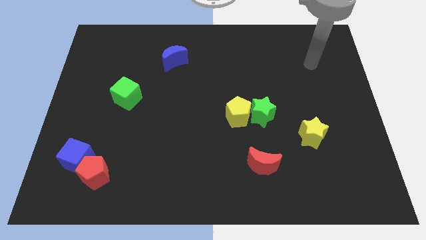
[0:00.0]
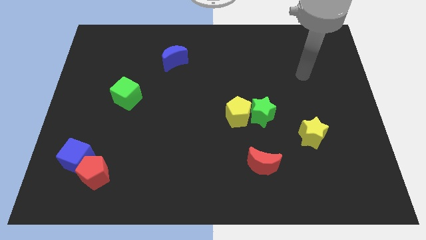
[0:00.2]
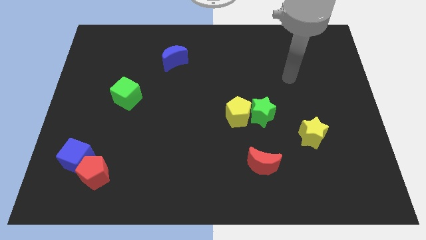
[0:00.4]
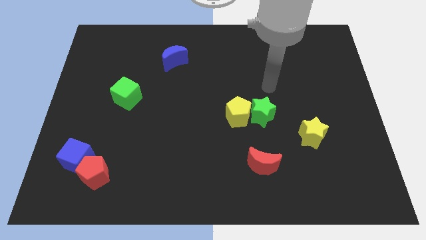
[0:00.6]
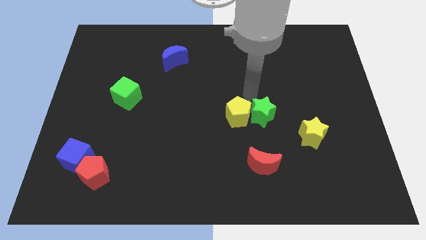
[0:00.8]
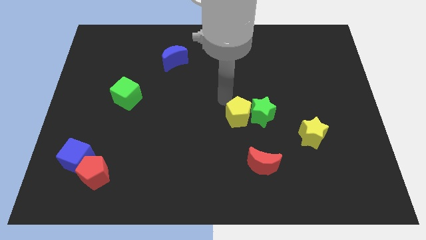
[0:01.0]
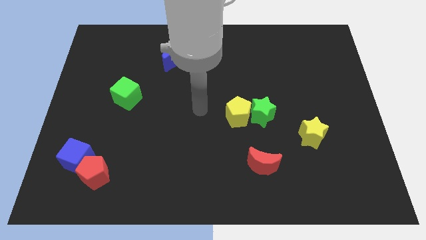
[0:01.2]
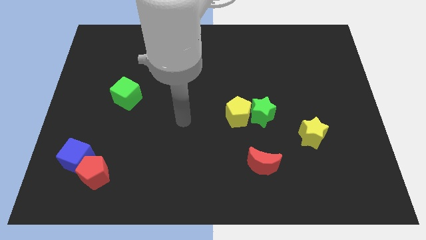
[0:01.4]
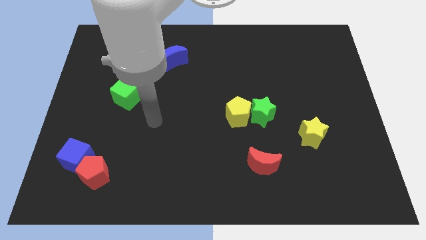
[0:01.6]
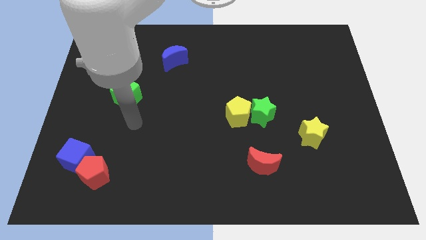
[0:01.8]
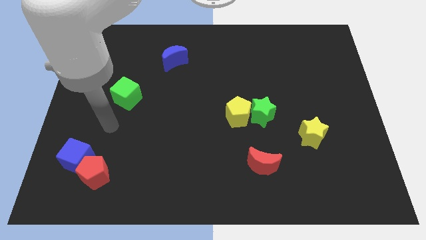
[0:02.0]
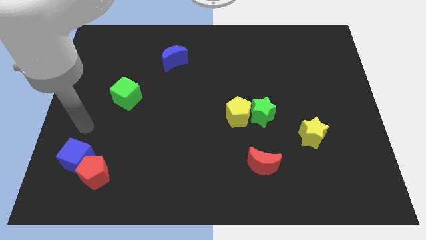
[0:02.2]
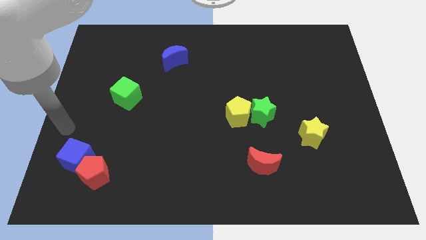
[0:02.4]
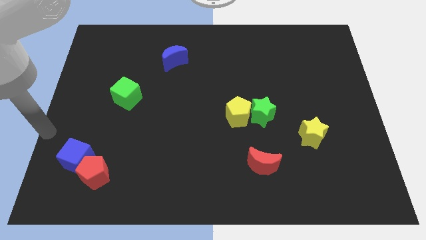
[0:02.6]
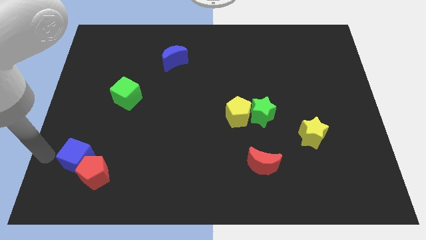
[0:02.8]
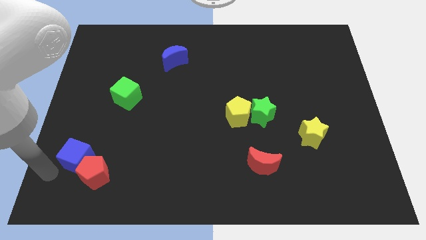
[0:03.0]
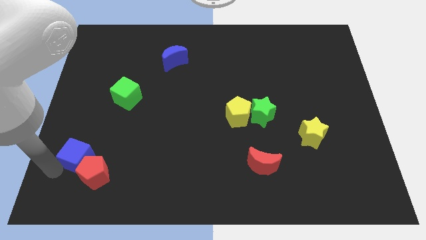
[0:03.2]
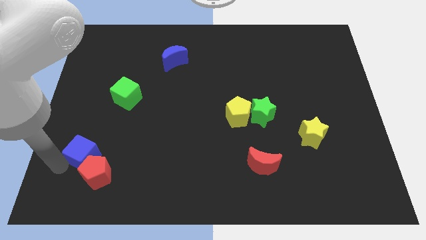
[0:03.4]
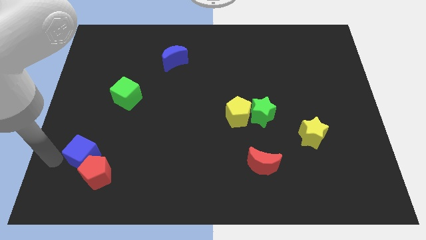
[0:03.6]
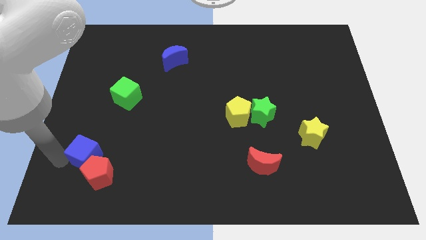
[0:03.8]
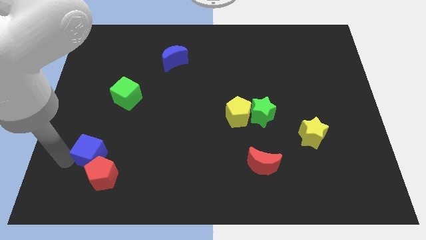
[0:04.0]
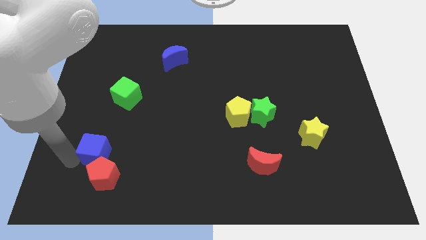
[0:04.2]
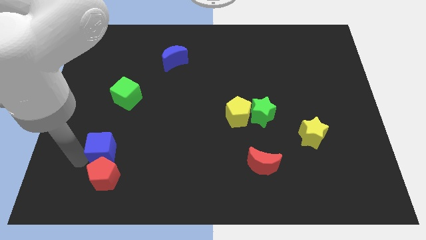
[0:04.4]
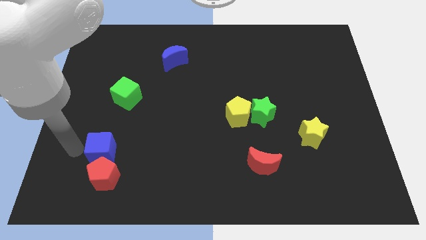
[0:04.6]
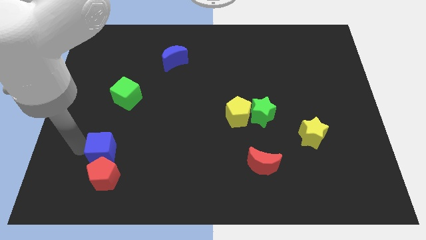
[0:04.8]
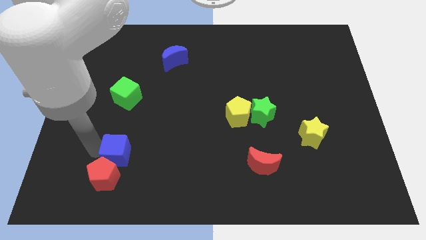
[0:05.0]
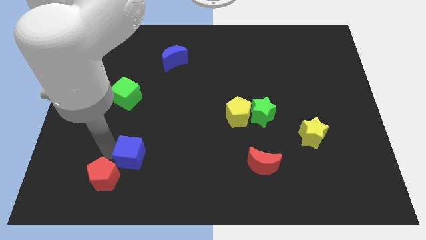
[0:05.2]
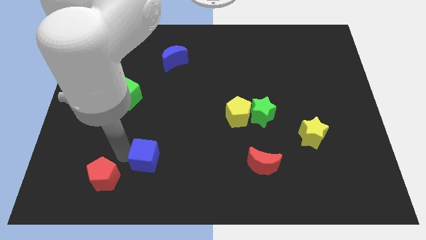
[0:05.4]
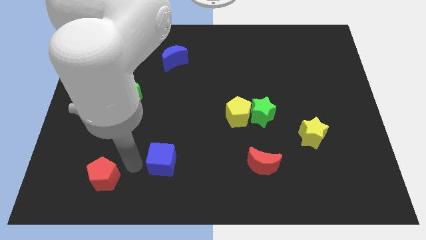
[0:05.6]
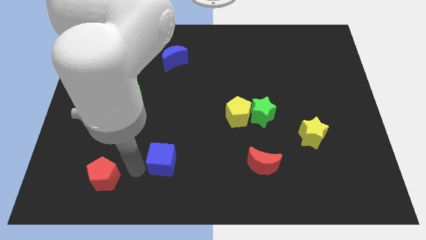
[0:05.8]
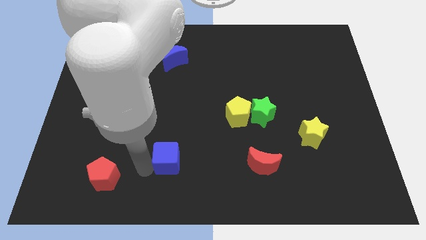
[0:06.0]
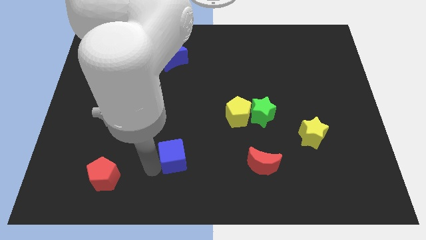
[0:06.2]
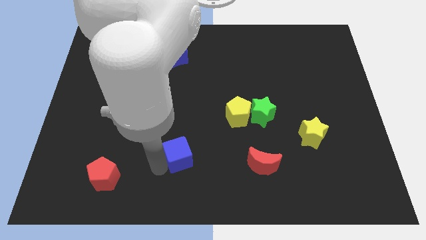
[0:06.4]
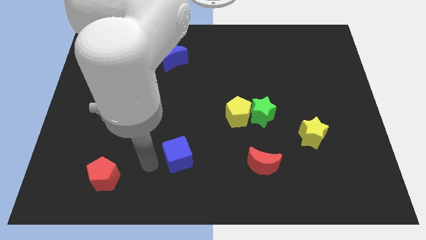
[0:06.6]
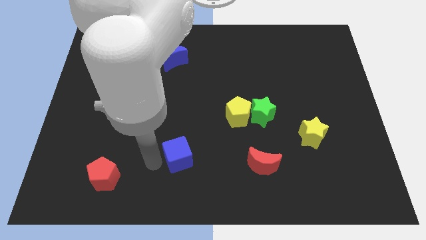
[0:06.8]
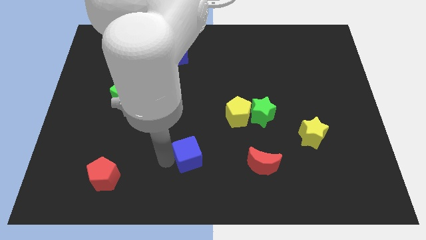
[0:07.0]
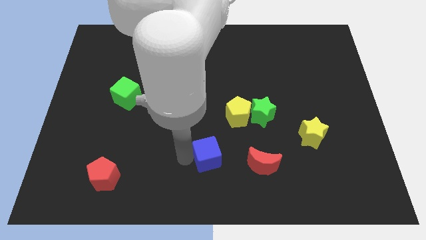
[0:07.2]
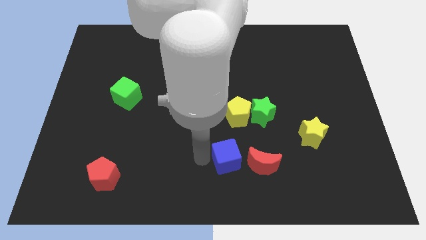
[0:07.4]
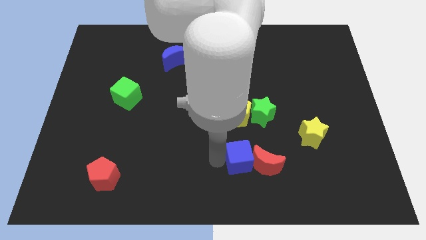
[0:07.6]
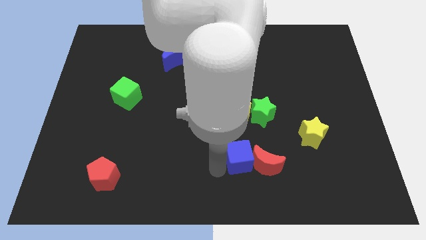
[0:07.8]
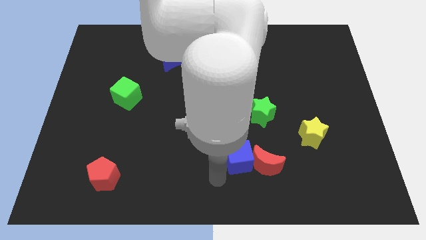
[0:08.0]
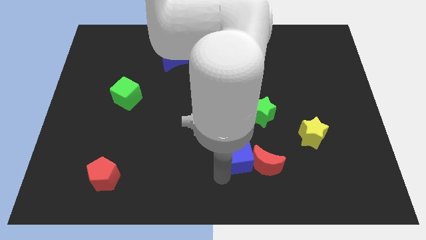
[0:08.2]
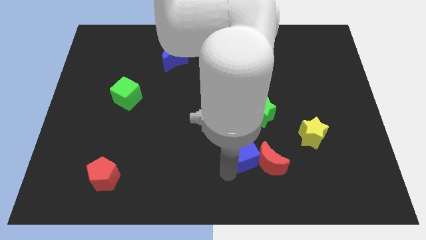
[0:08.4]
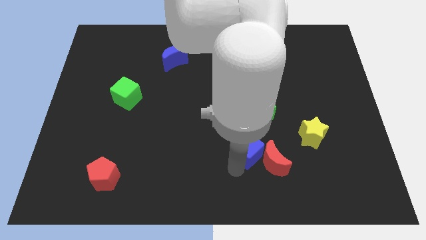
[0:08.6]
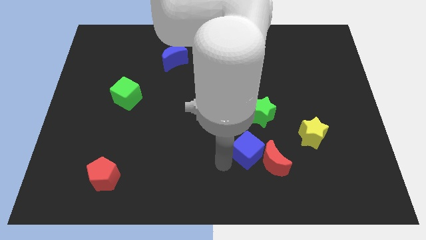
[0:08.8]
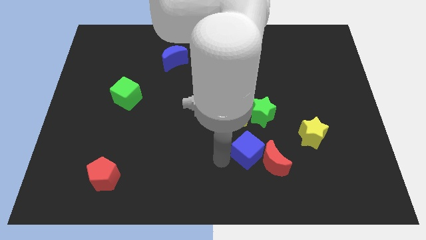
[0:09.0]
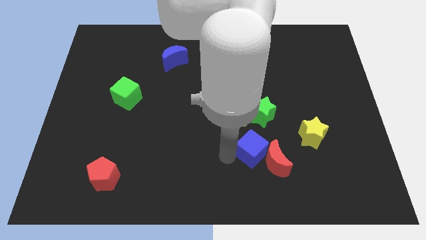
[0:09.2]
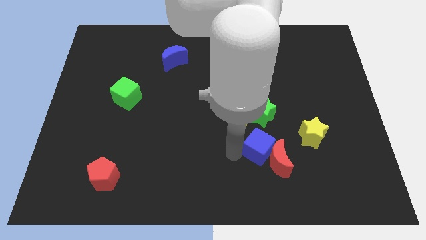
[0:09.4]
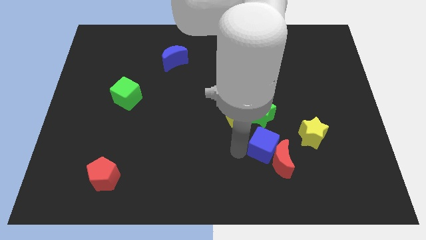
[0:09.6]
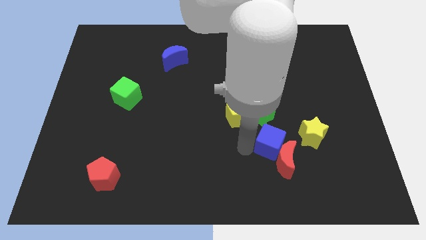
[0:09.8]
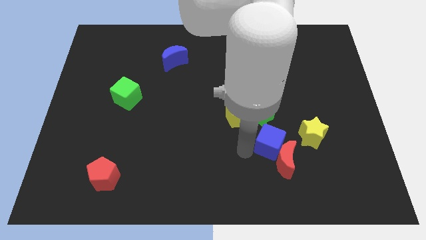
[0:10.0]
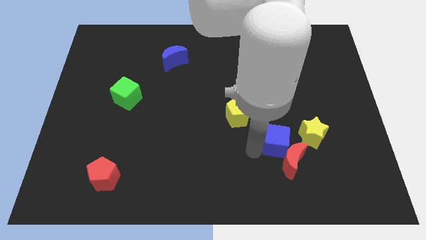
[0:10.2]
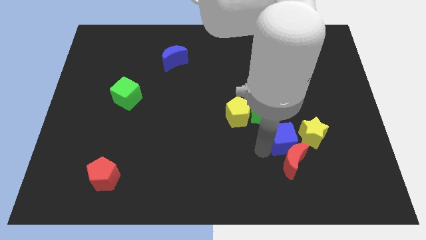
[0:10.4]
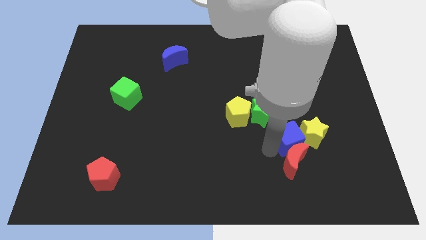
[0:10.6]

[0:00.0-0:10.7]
push the blue cube to the yellow star

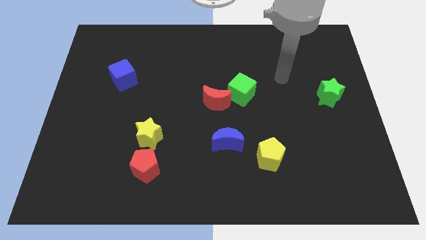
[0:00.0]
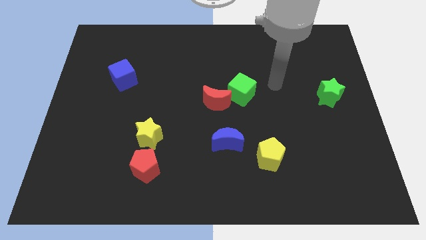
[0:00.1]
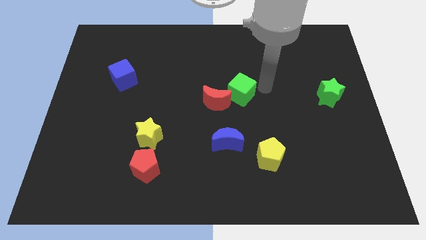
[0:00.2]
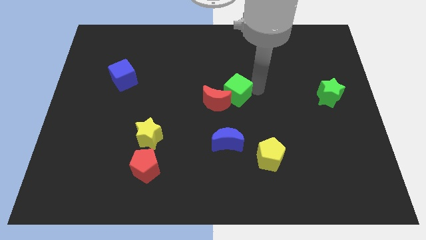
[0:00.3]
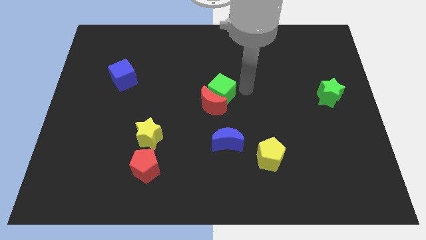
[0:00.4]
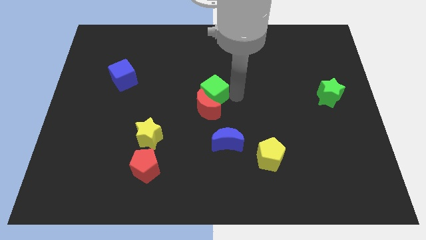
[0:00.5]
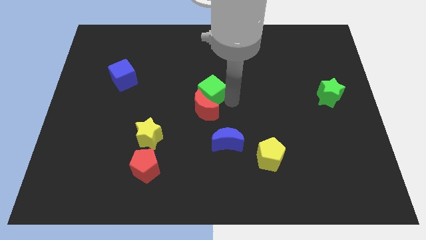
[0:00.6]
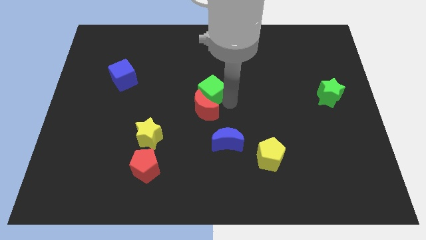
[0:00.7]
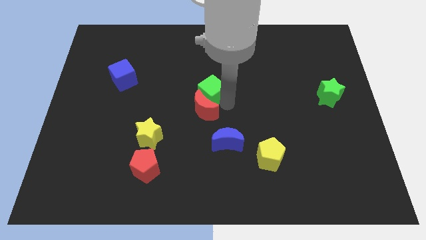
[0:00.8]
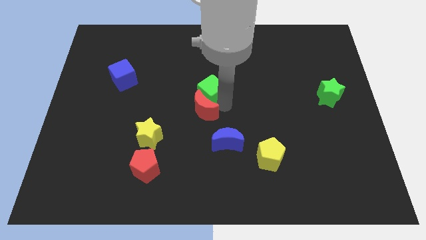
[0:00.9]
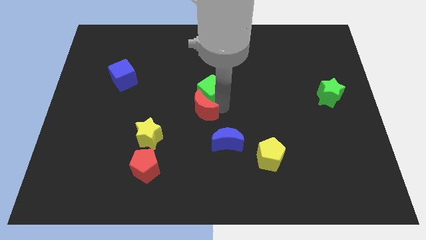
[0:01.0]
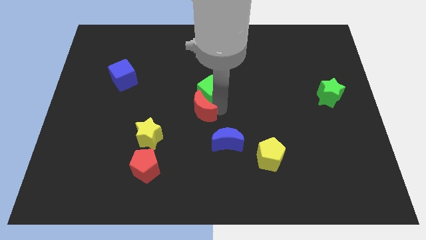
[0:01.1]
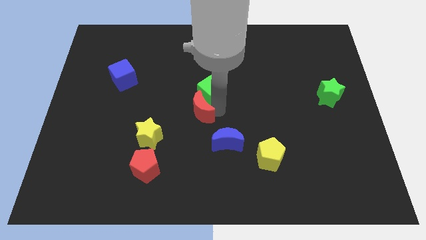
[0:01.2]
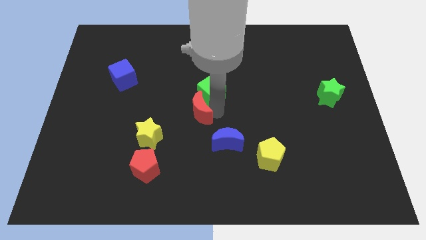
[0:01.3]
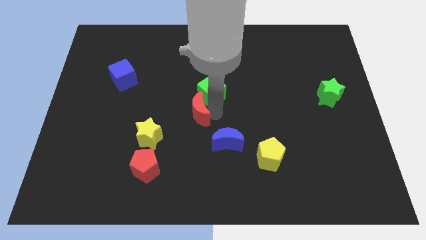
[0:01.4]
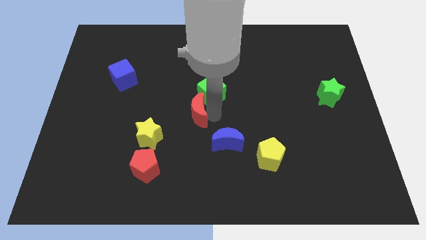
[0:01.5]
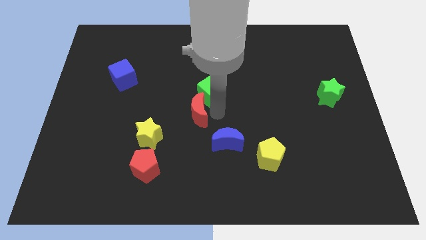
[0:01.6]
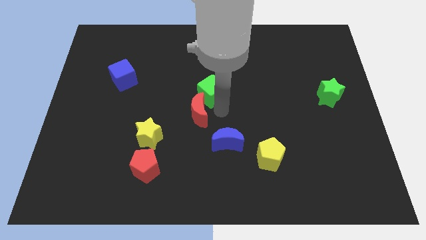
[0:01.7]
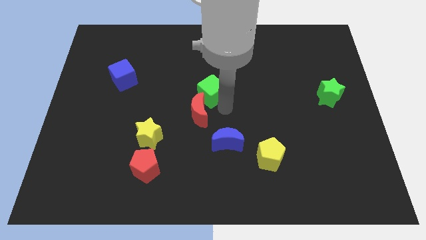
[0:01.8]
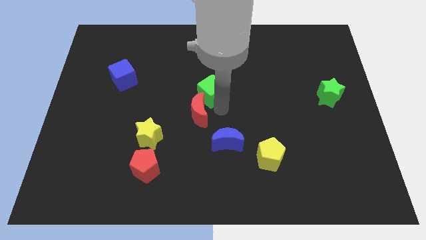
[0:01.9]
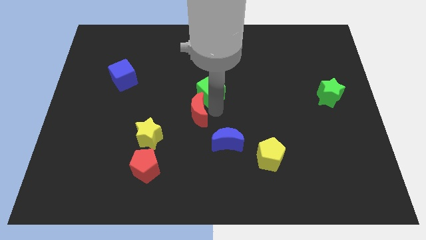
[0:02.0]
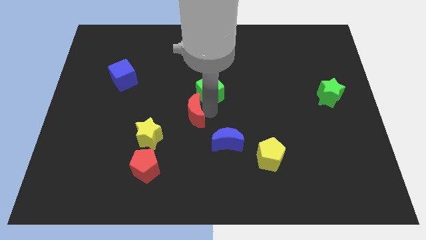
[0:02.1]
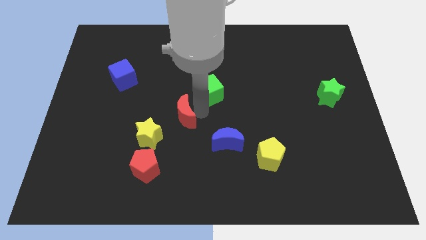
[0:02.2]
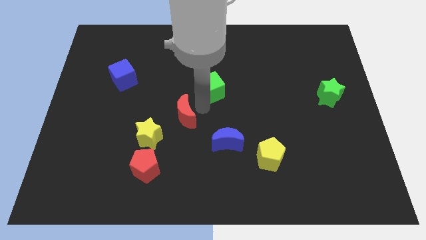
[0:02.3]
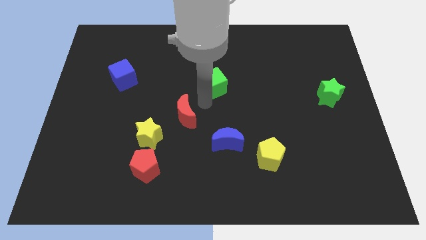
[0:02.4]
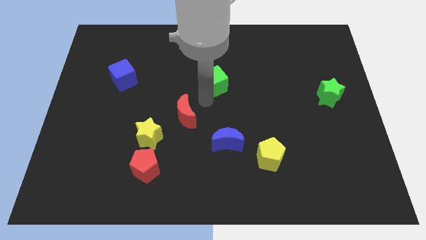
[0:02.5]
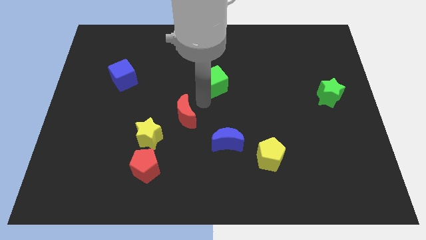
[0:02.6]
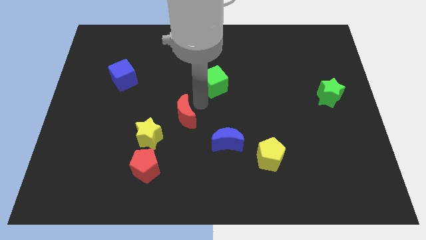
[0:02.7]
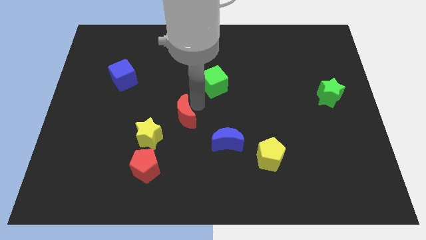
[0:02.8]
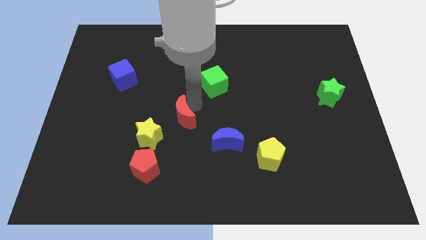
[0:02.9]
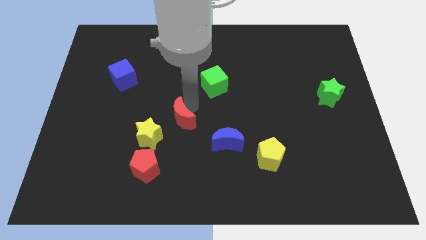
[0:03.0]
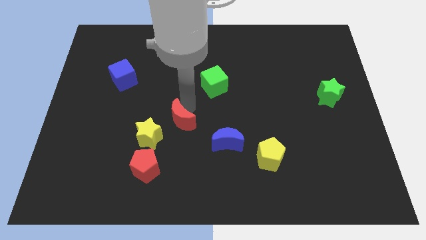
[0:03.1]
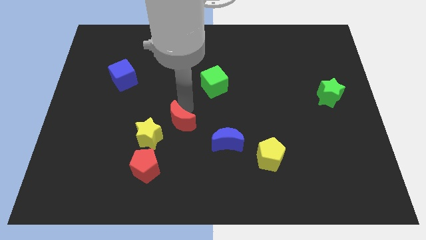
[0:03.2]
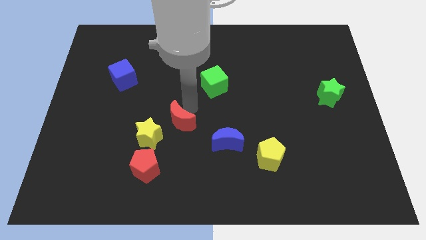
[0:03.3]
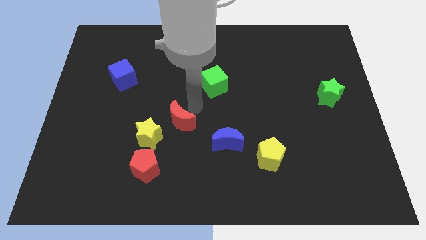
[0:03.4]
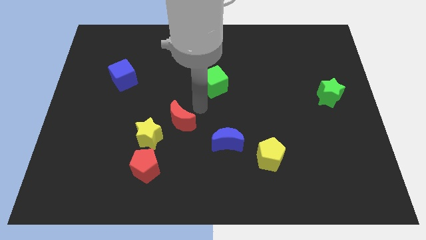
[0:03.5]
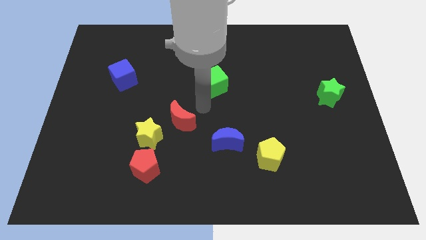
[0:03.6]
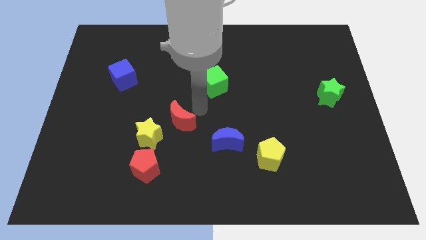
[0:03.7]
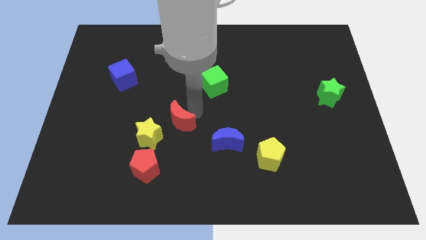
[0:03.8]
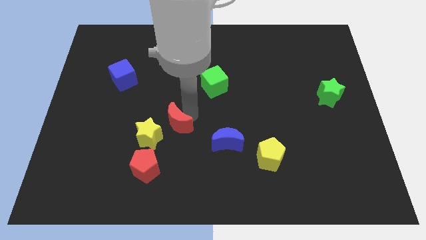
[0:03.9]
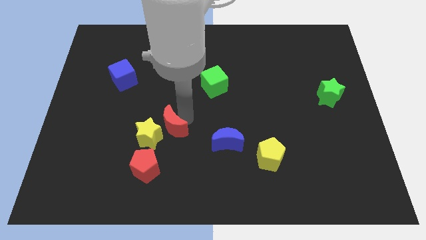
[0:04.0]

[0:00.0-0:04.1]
slide the red moon next to the yellow star
